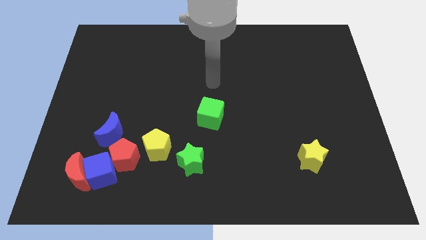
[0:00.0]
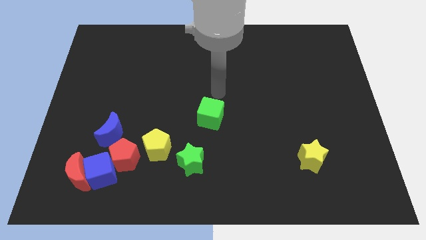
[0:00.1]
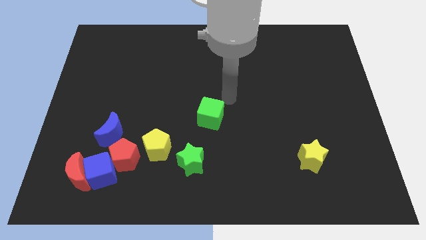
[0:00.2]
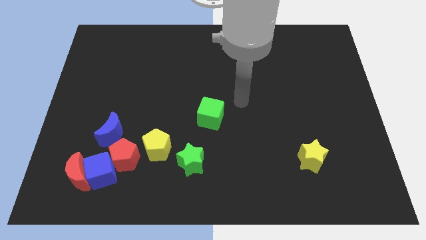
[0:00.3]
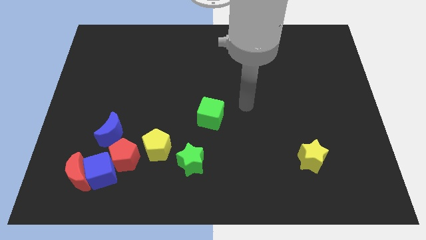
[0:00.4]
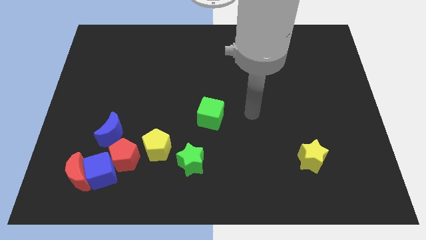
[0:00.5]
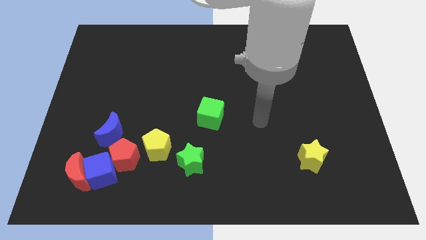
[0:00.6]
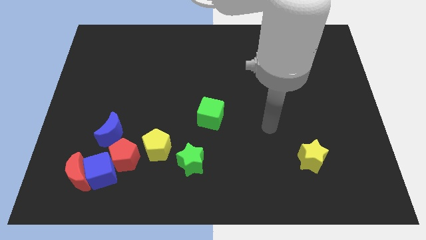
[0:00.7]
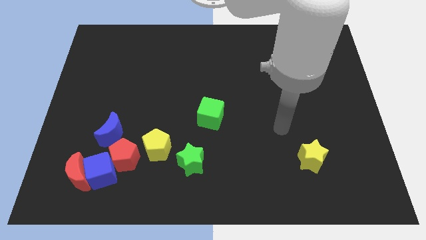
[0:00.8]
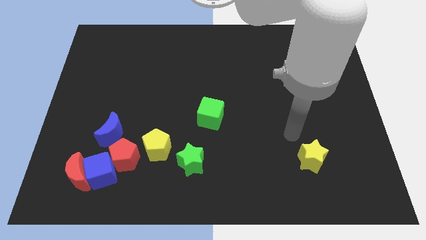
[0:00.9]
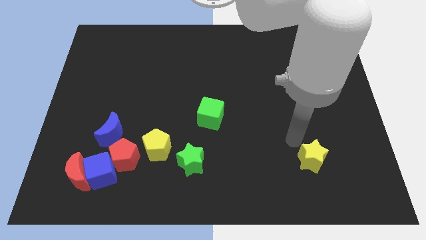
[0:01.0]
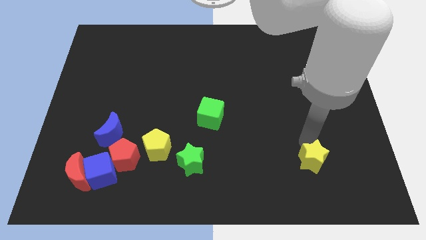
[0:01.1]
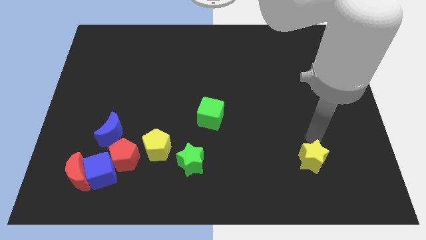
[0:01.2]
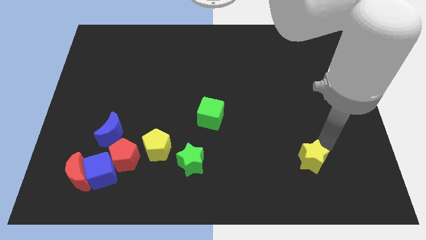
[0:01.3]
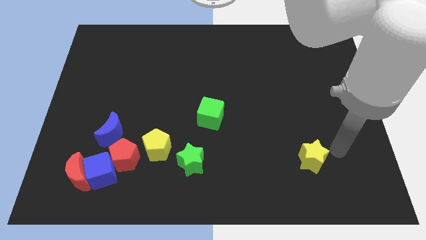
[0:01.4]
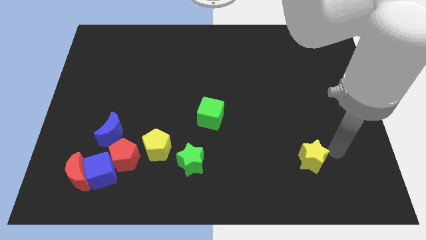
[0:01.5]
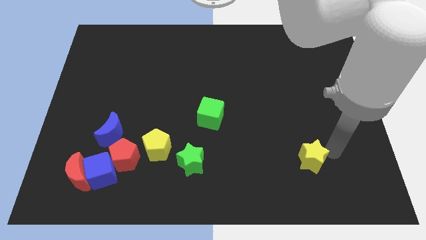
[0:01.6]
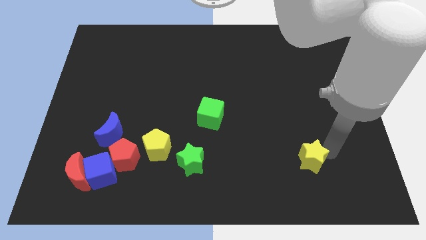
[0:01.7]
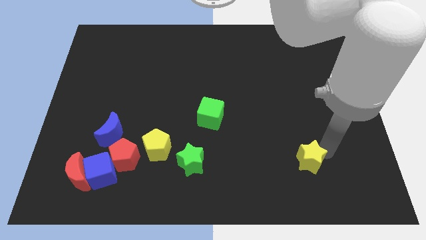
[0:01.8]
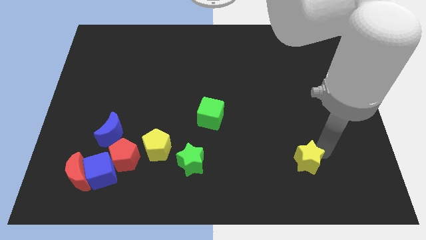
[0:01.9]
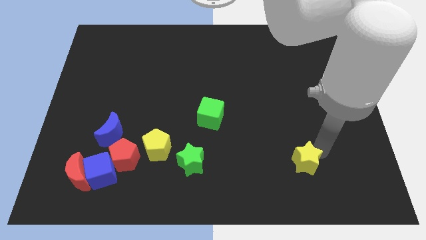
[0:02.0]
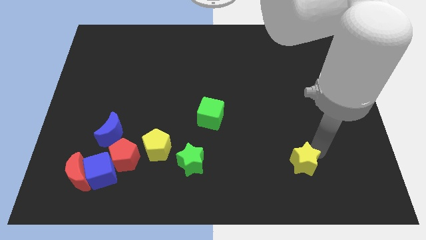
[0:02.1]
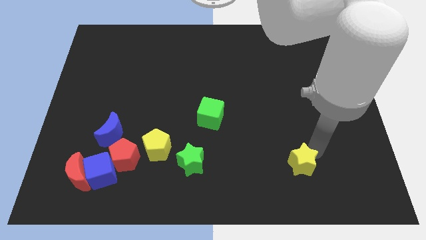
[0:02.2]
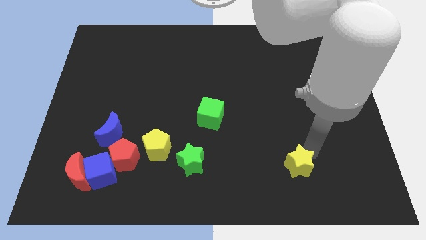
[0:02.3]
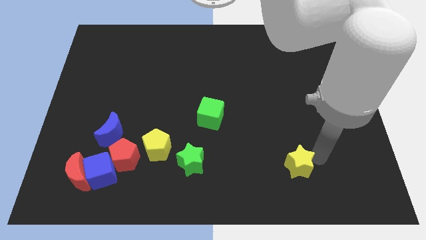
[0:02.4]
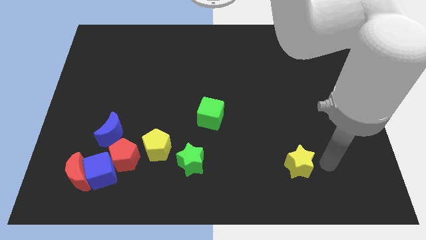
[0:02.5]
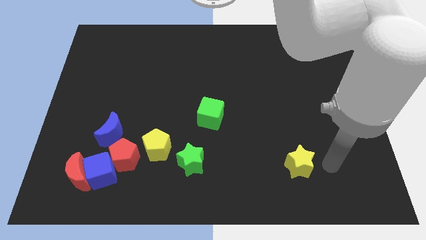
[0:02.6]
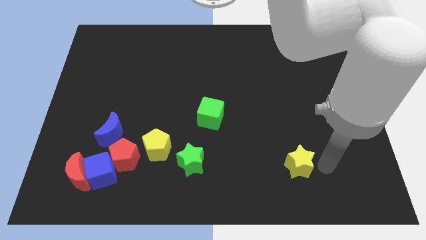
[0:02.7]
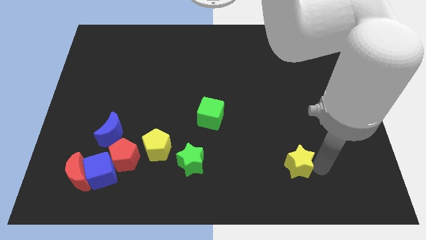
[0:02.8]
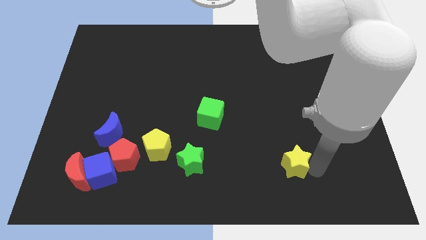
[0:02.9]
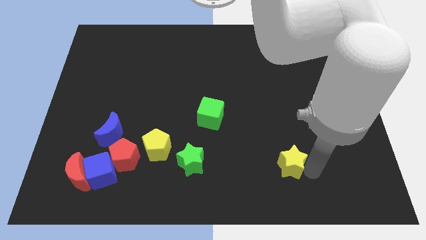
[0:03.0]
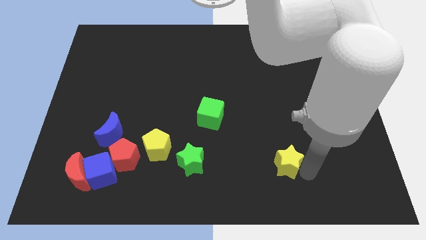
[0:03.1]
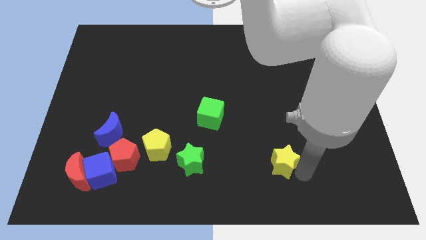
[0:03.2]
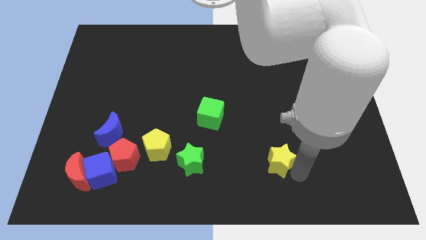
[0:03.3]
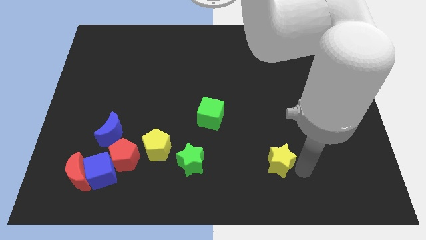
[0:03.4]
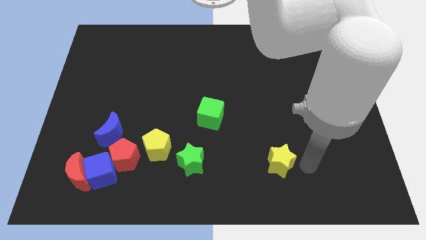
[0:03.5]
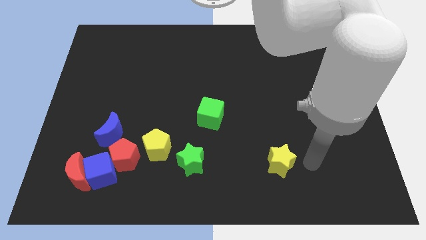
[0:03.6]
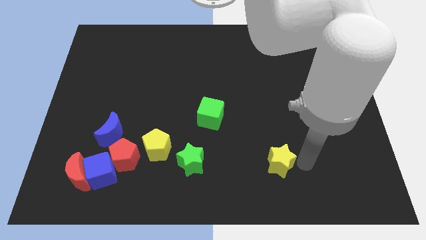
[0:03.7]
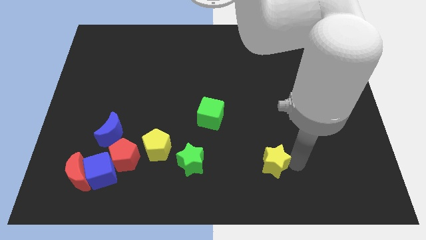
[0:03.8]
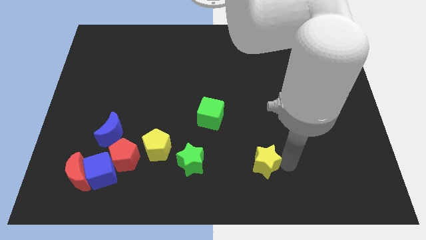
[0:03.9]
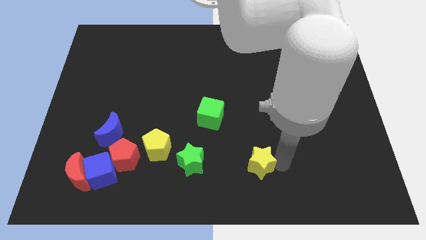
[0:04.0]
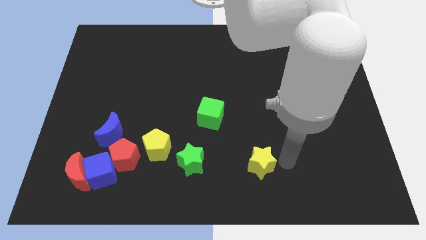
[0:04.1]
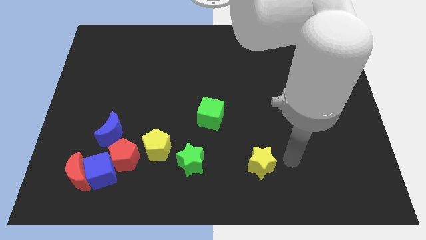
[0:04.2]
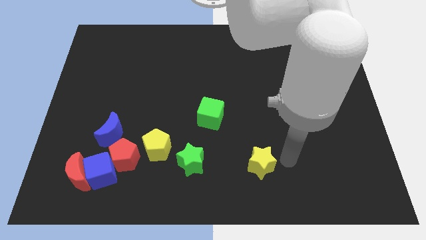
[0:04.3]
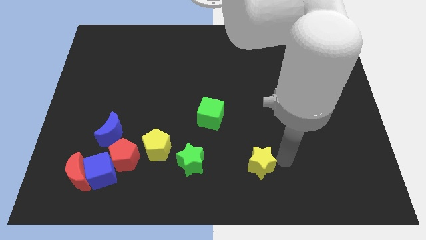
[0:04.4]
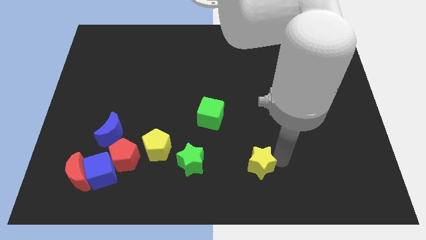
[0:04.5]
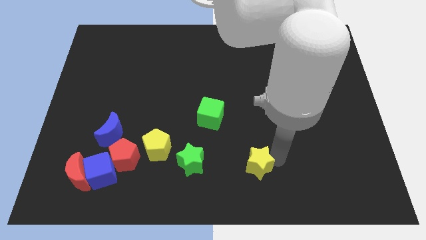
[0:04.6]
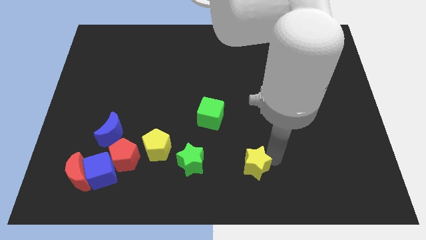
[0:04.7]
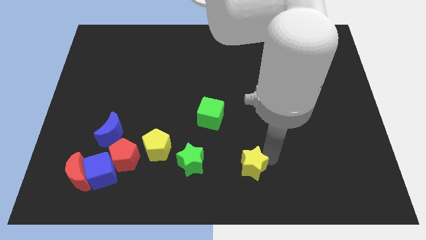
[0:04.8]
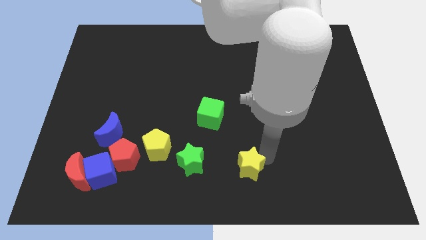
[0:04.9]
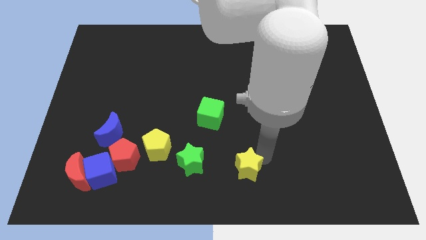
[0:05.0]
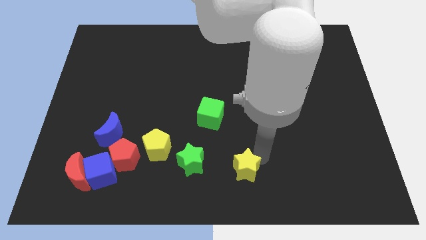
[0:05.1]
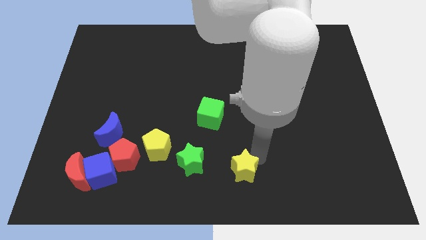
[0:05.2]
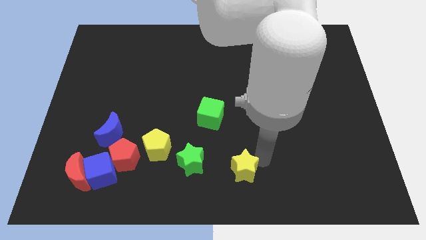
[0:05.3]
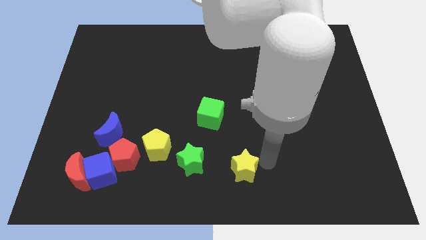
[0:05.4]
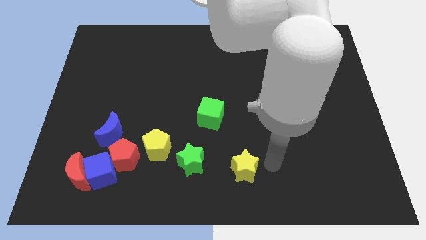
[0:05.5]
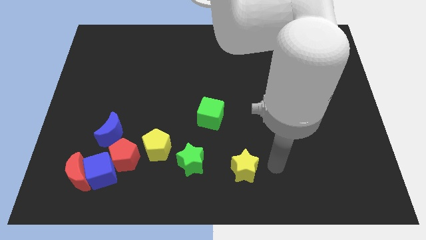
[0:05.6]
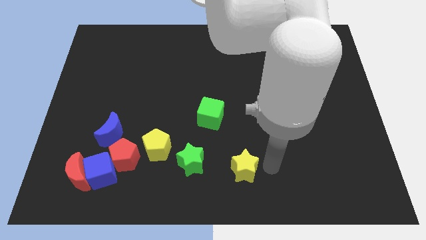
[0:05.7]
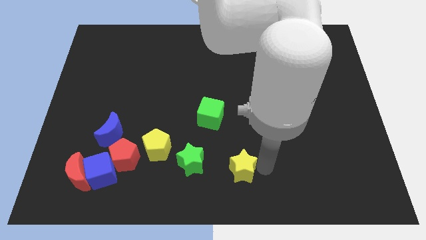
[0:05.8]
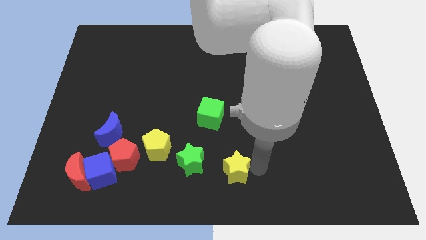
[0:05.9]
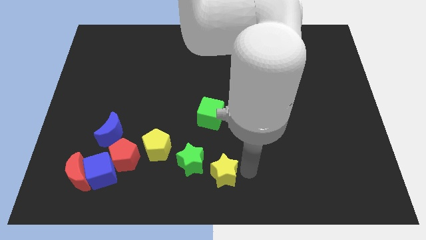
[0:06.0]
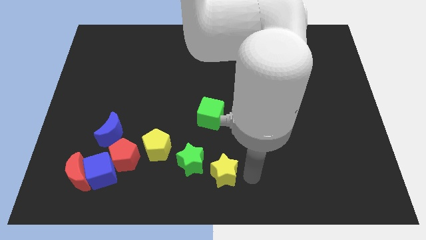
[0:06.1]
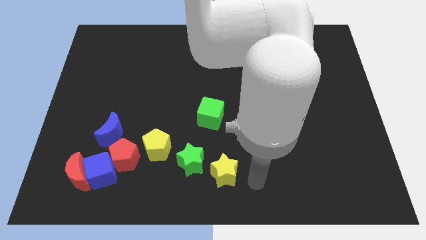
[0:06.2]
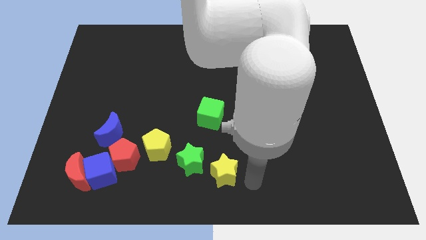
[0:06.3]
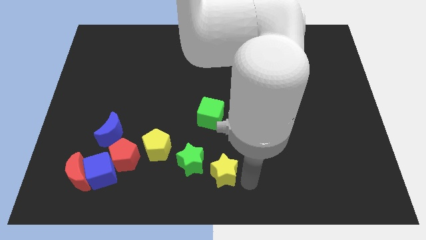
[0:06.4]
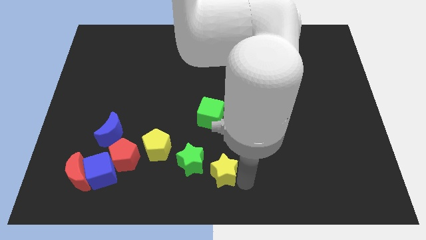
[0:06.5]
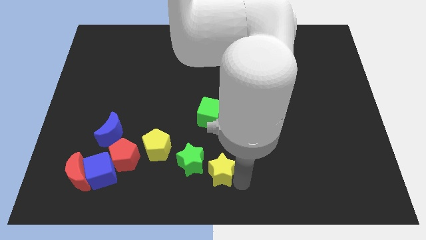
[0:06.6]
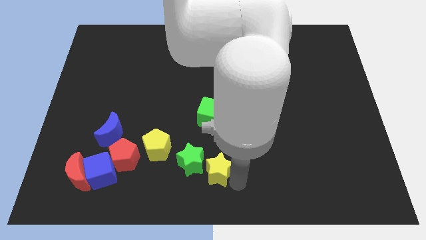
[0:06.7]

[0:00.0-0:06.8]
push the yellow star towards the green star
